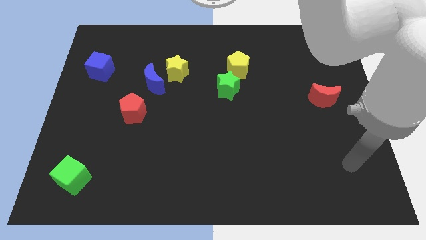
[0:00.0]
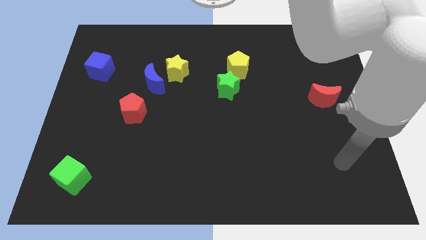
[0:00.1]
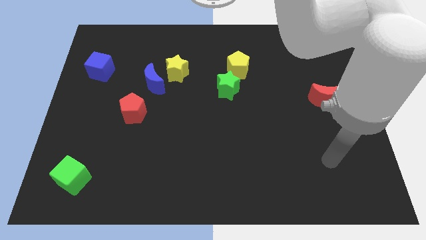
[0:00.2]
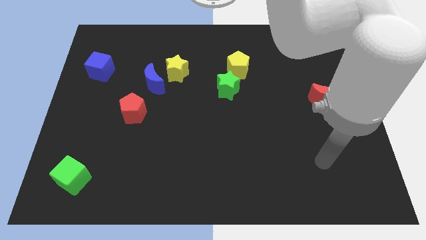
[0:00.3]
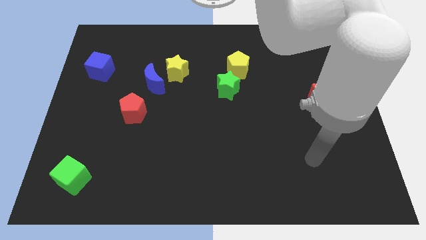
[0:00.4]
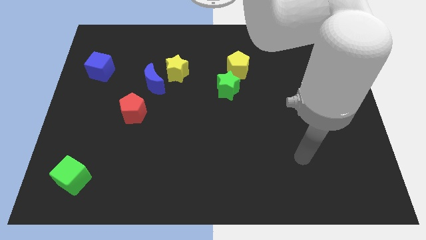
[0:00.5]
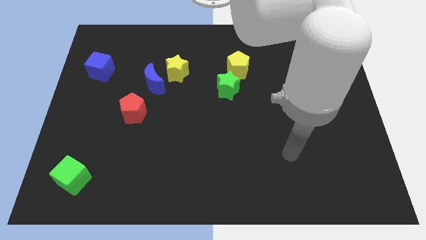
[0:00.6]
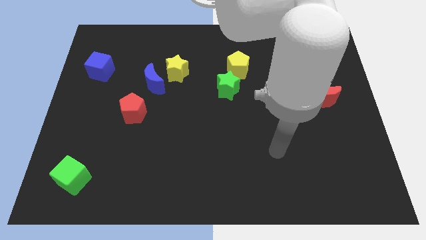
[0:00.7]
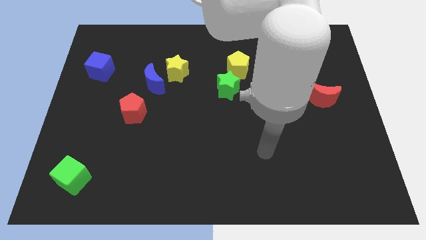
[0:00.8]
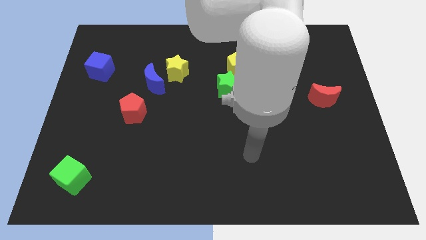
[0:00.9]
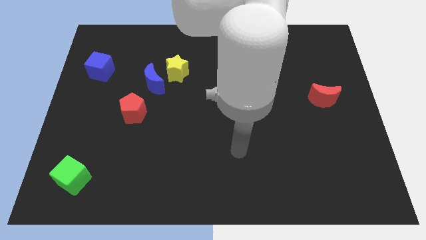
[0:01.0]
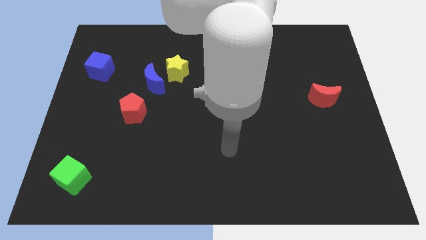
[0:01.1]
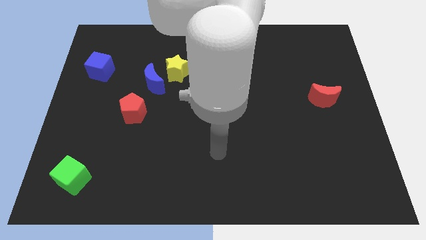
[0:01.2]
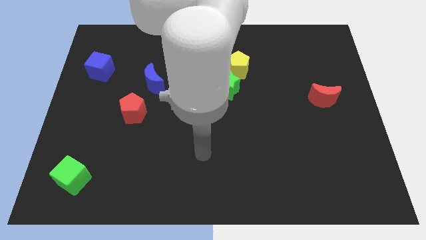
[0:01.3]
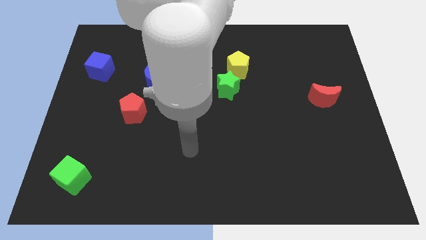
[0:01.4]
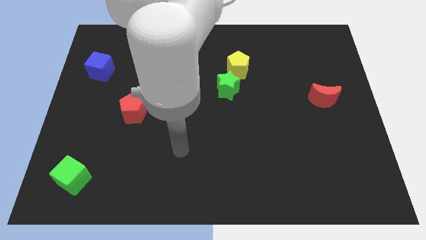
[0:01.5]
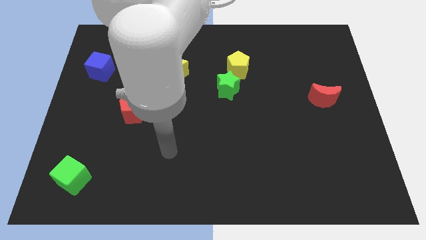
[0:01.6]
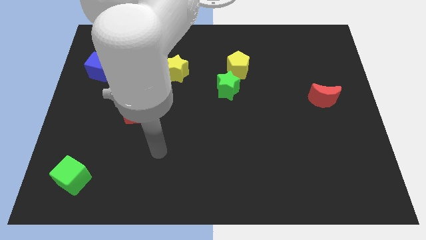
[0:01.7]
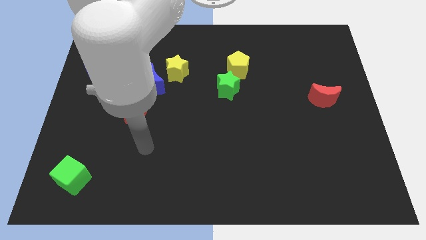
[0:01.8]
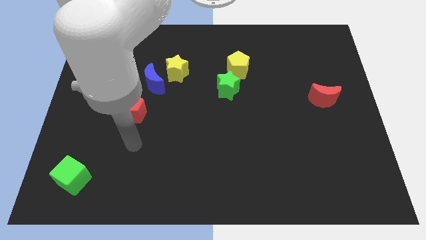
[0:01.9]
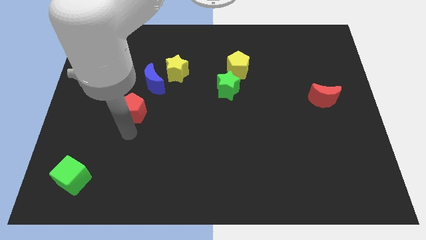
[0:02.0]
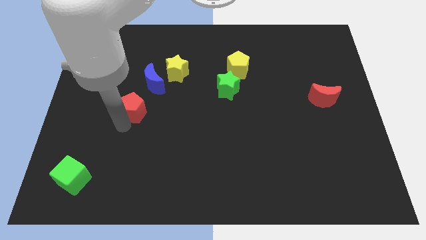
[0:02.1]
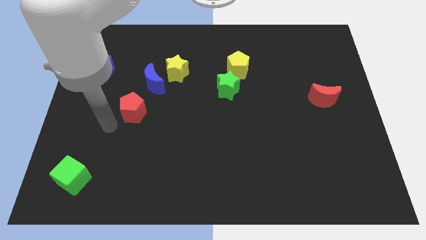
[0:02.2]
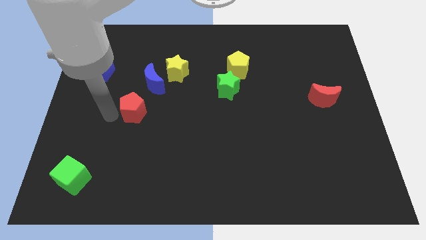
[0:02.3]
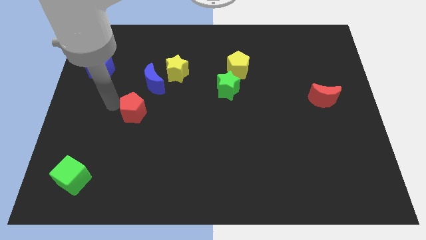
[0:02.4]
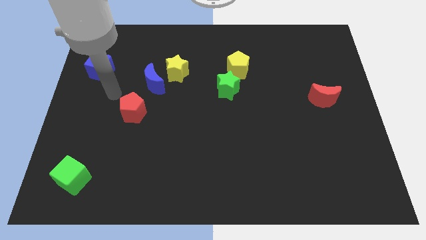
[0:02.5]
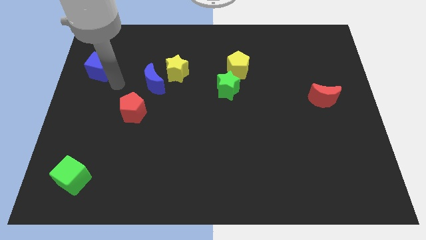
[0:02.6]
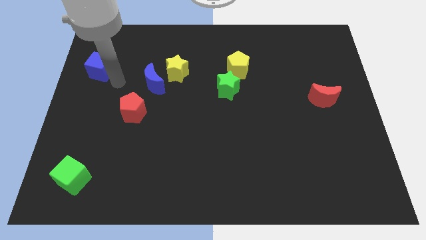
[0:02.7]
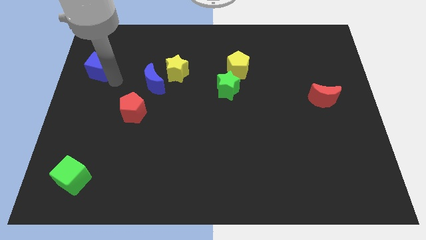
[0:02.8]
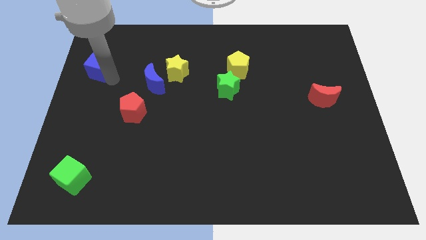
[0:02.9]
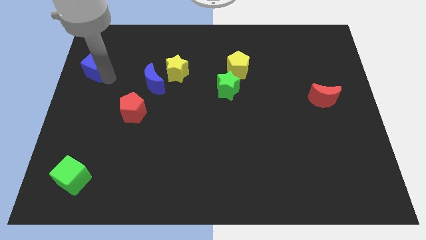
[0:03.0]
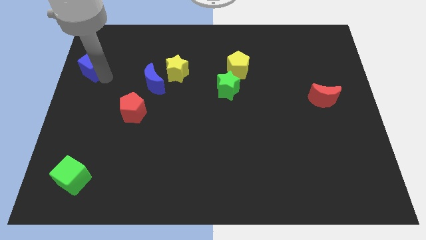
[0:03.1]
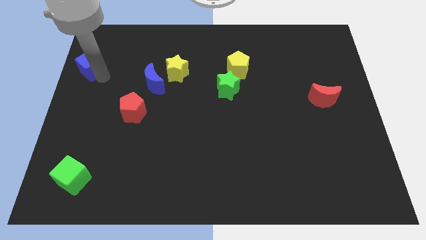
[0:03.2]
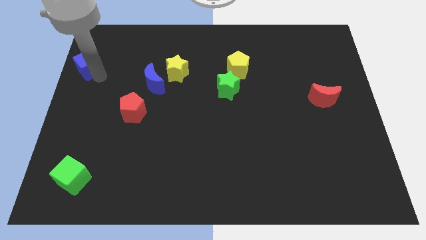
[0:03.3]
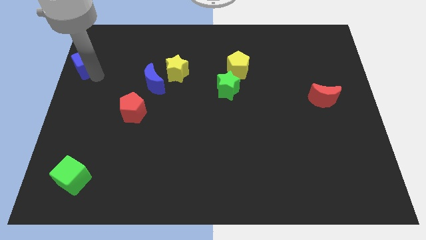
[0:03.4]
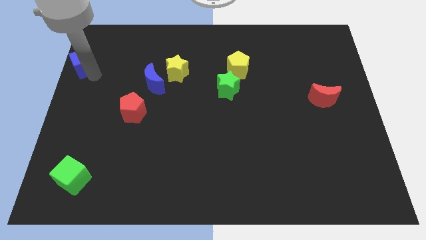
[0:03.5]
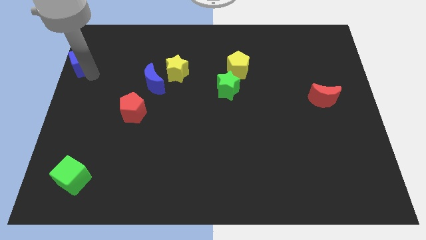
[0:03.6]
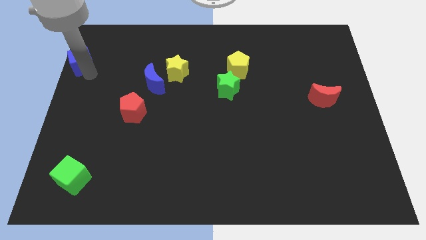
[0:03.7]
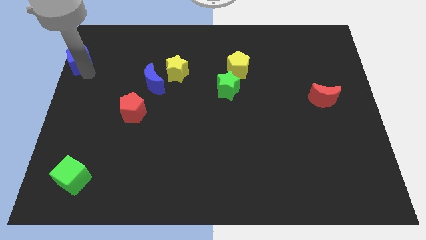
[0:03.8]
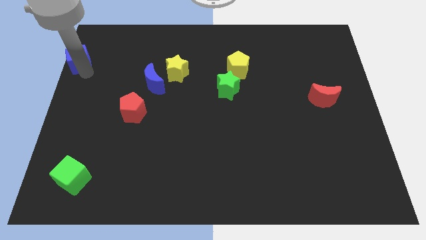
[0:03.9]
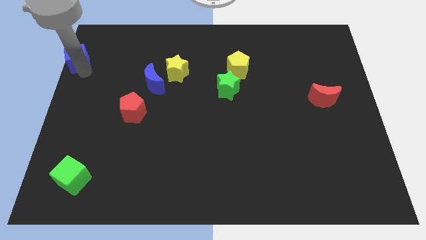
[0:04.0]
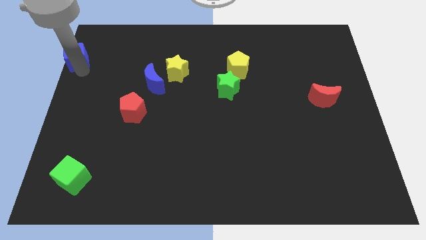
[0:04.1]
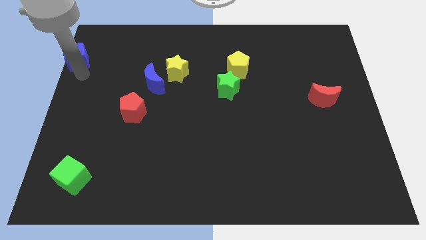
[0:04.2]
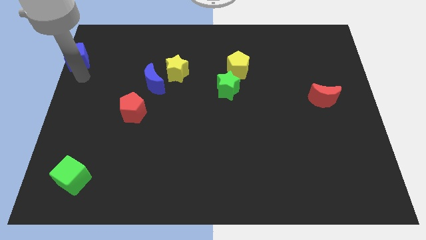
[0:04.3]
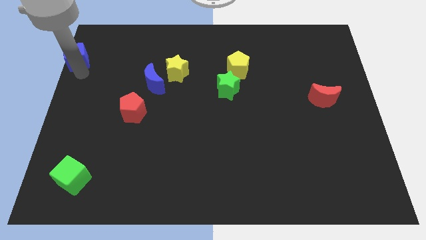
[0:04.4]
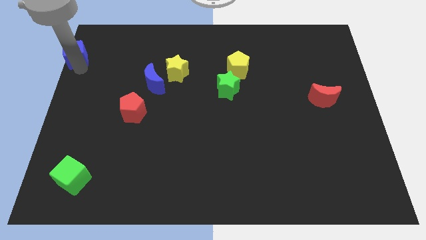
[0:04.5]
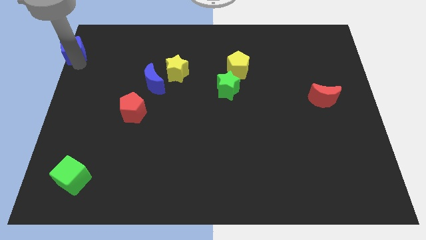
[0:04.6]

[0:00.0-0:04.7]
move the blue cube to the upper left corner

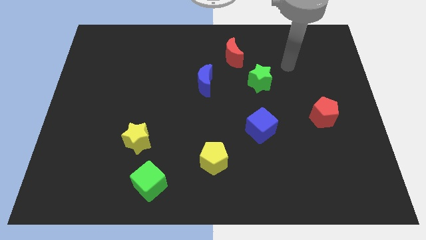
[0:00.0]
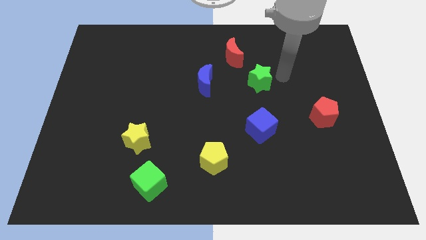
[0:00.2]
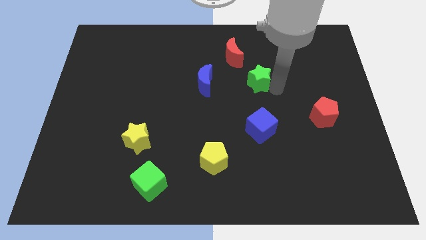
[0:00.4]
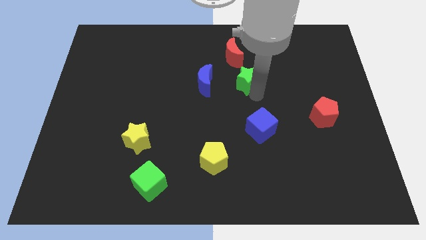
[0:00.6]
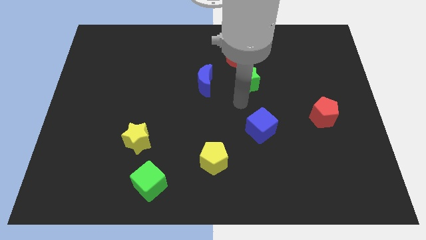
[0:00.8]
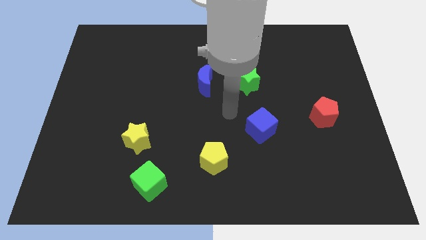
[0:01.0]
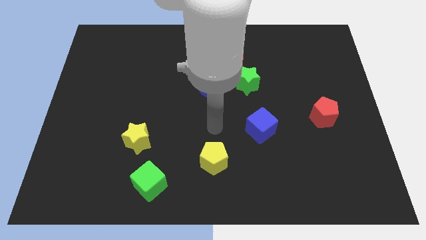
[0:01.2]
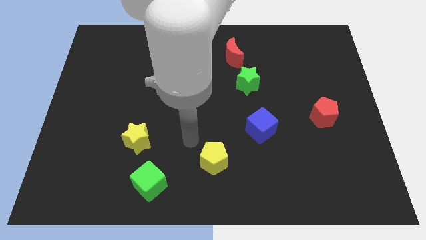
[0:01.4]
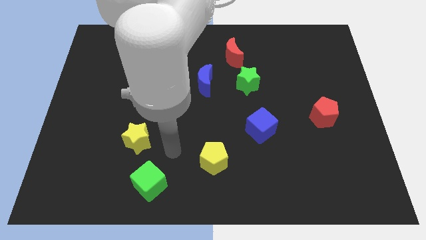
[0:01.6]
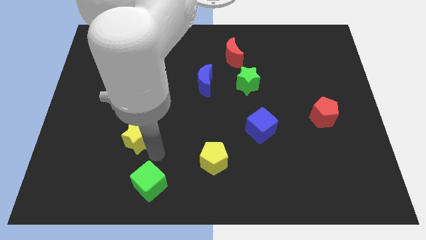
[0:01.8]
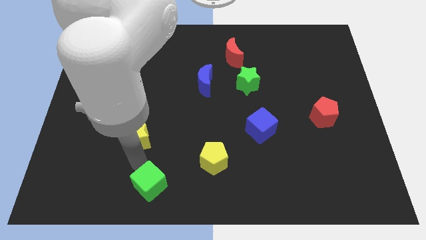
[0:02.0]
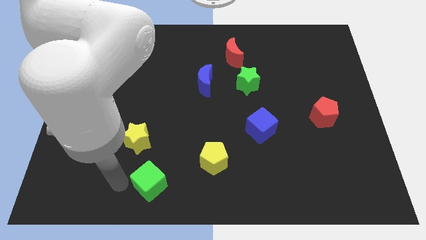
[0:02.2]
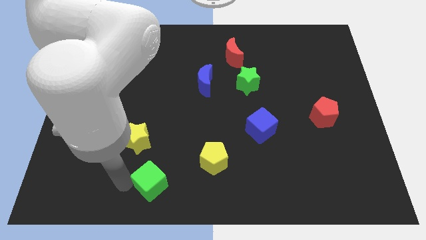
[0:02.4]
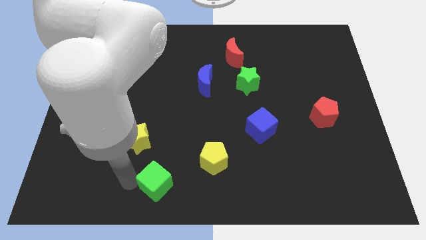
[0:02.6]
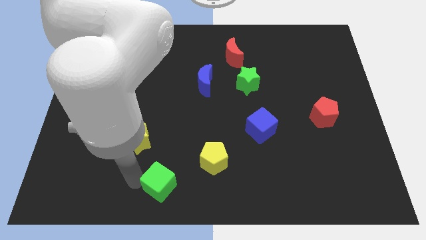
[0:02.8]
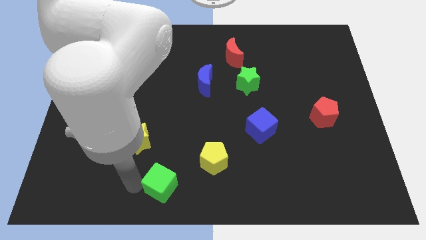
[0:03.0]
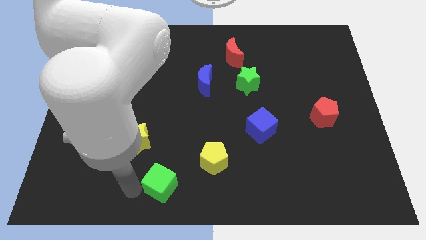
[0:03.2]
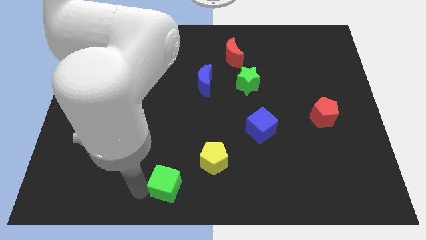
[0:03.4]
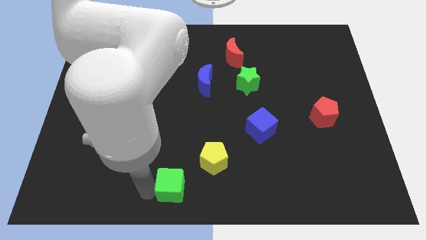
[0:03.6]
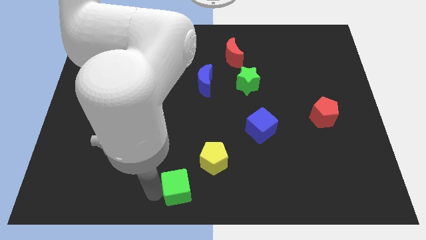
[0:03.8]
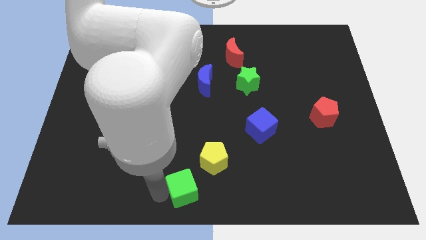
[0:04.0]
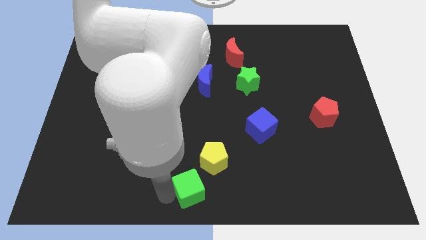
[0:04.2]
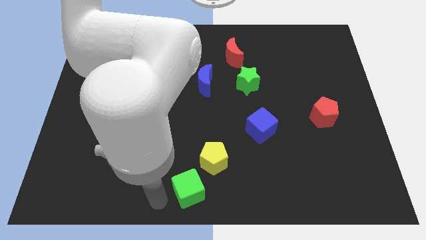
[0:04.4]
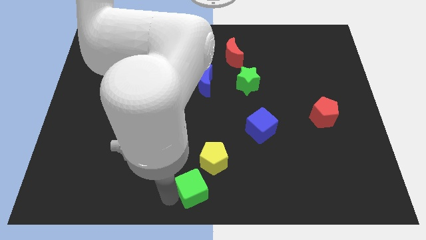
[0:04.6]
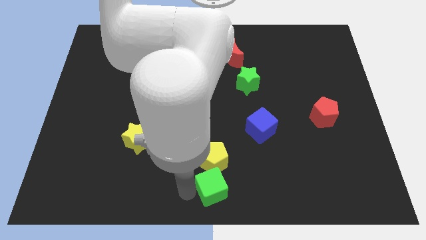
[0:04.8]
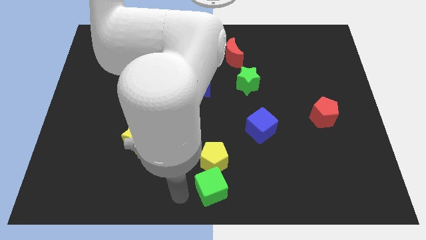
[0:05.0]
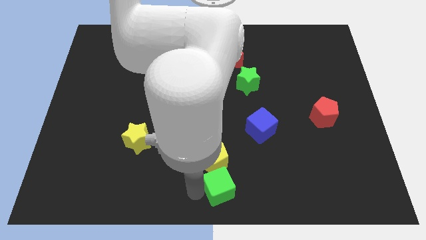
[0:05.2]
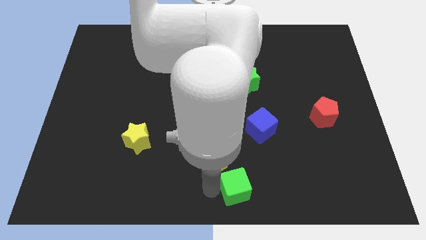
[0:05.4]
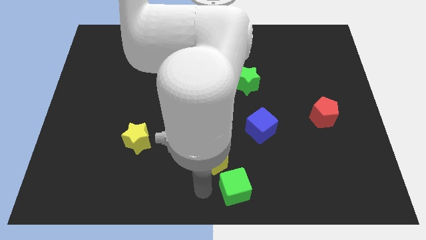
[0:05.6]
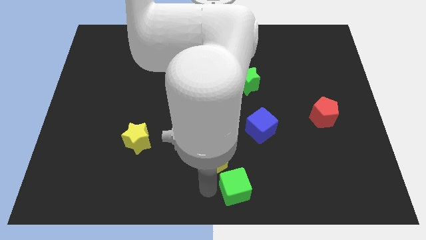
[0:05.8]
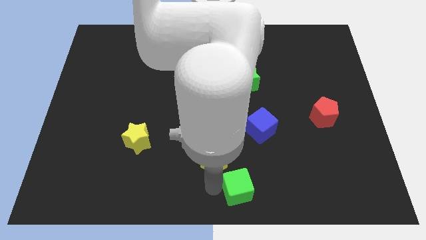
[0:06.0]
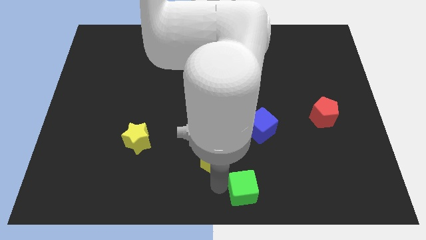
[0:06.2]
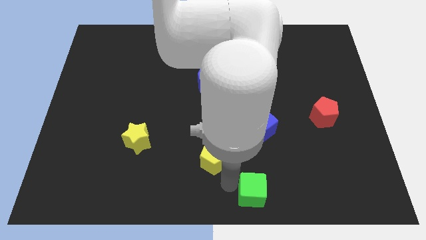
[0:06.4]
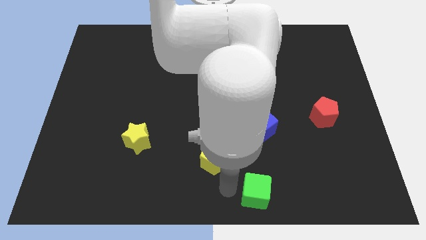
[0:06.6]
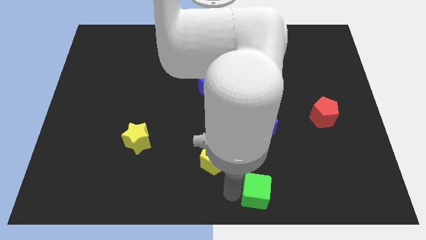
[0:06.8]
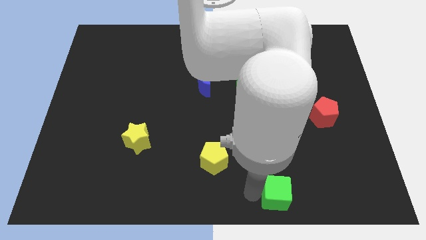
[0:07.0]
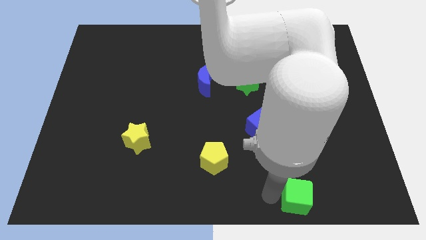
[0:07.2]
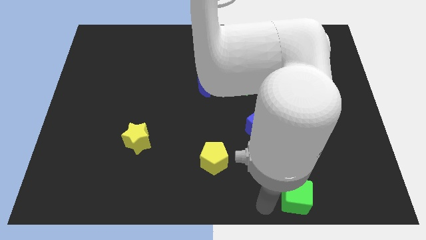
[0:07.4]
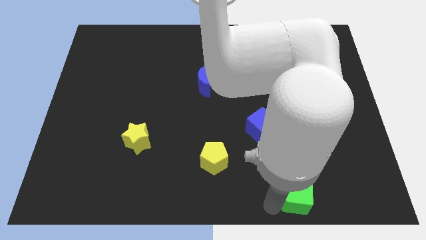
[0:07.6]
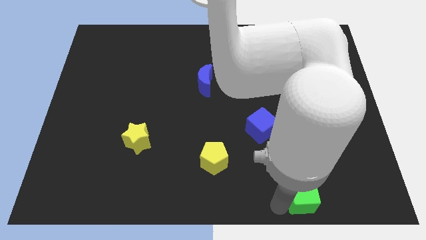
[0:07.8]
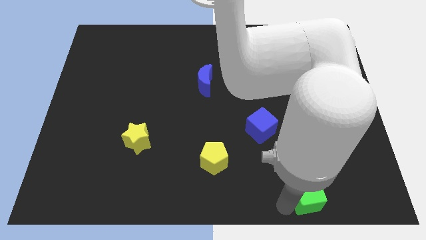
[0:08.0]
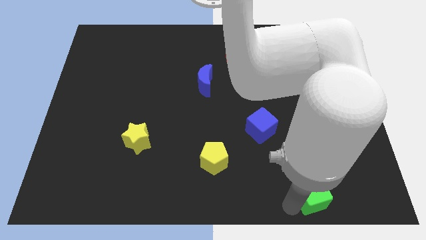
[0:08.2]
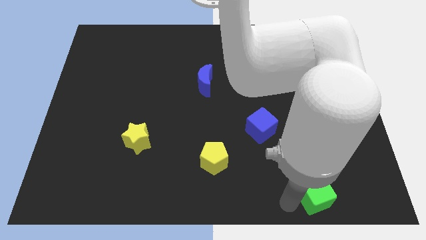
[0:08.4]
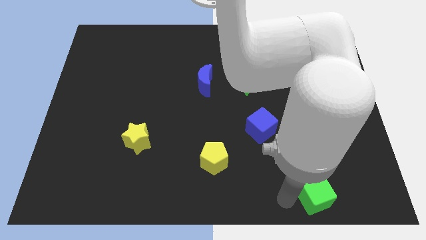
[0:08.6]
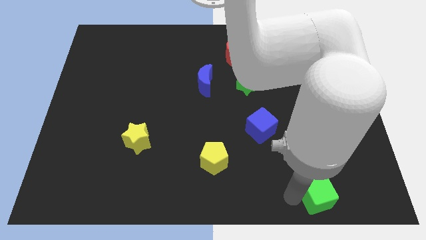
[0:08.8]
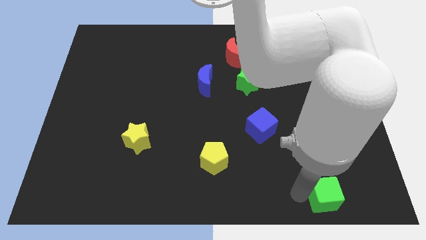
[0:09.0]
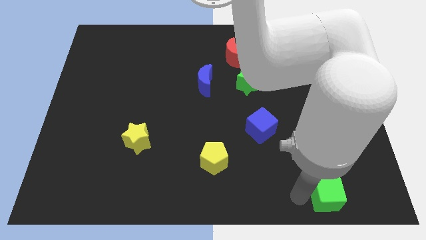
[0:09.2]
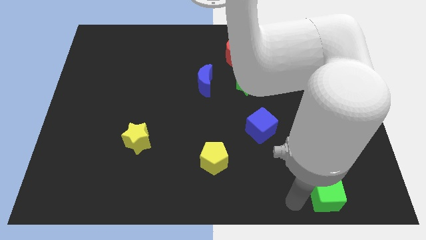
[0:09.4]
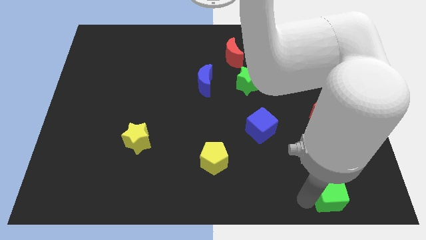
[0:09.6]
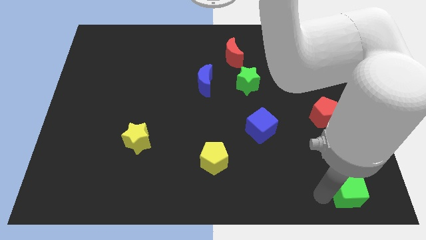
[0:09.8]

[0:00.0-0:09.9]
slide the green cube to the bottom right of the board
